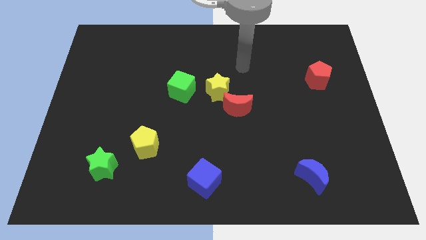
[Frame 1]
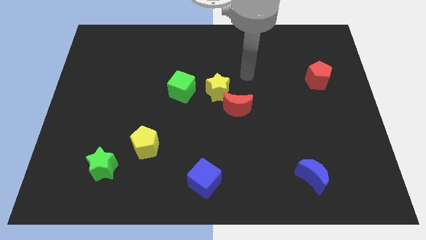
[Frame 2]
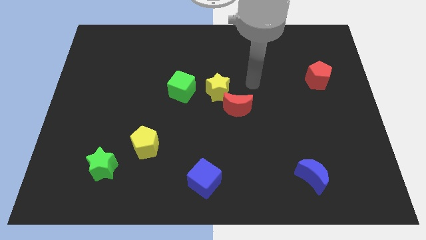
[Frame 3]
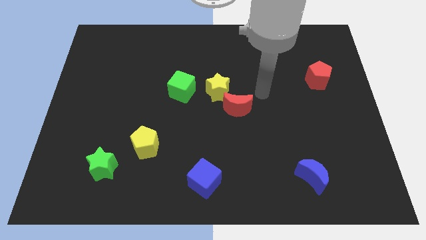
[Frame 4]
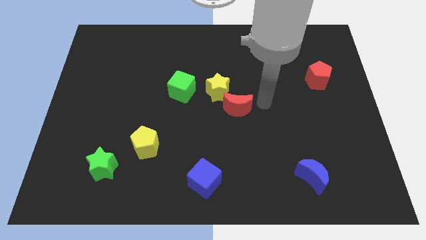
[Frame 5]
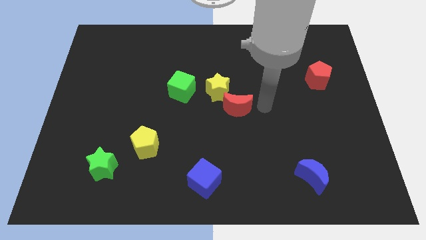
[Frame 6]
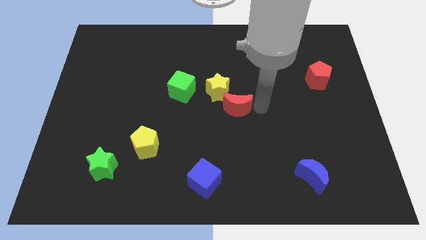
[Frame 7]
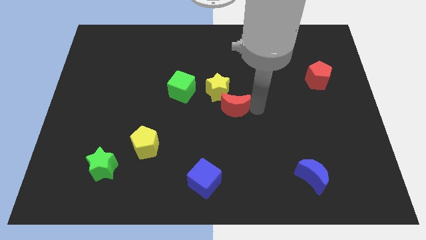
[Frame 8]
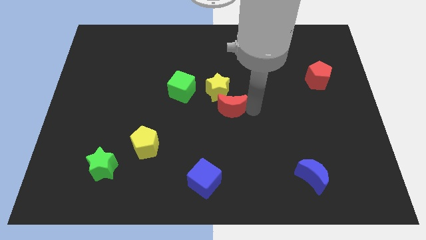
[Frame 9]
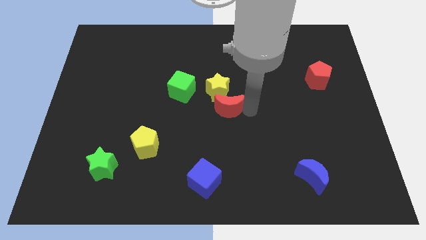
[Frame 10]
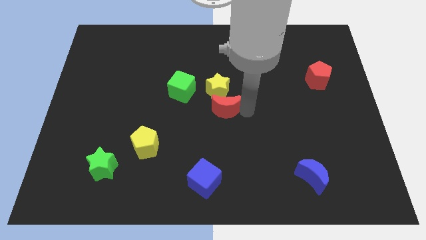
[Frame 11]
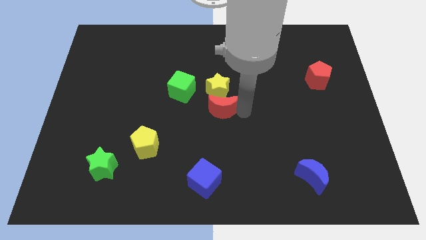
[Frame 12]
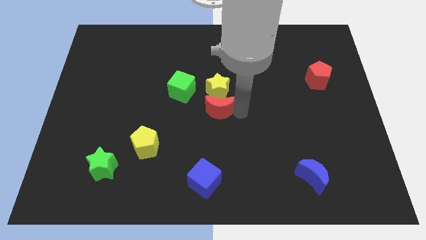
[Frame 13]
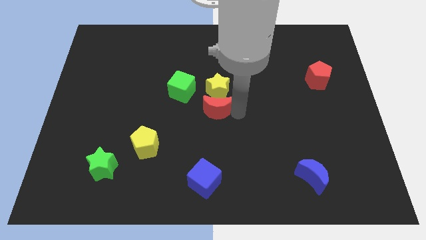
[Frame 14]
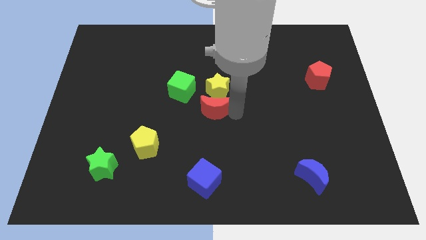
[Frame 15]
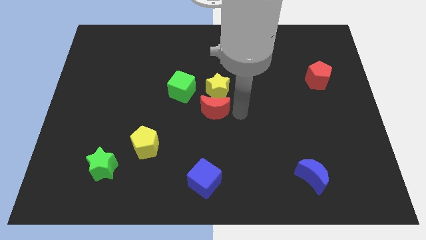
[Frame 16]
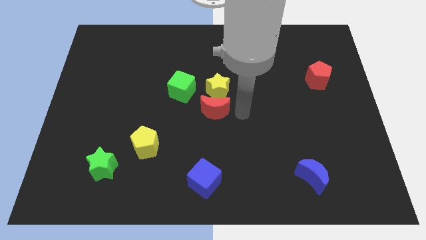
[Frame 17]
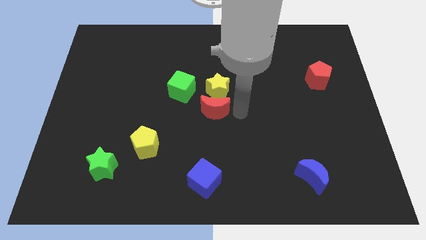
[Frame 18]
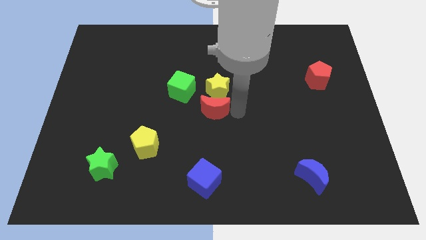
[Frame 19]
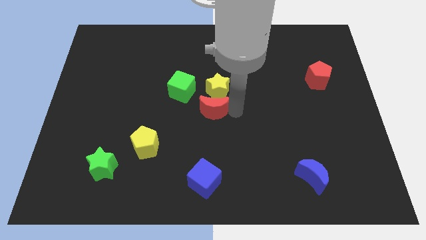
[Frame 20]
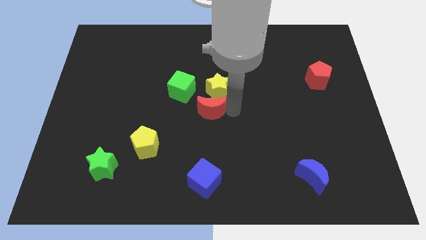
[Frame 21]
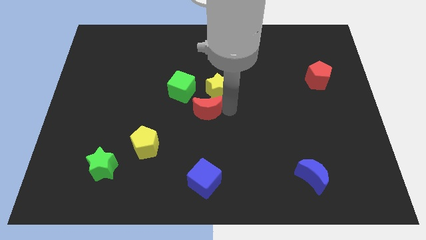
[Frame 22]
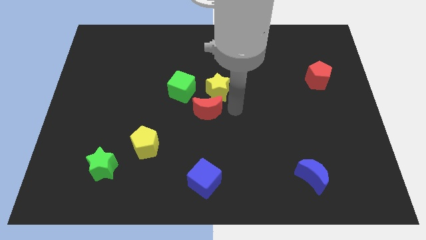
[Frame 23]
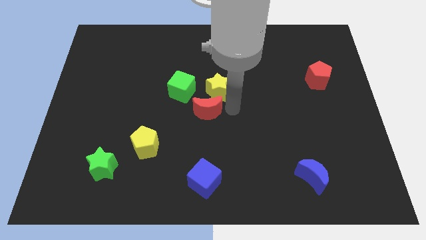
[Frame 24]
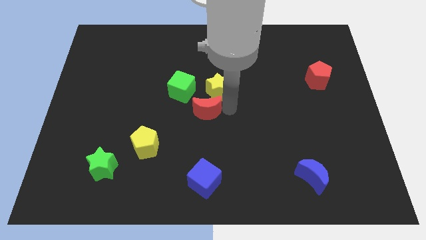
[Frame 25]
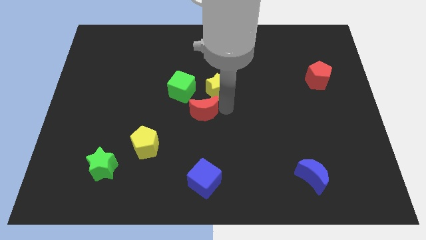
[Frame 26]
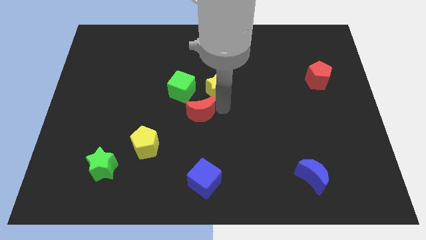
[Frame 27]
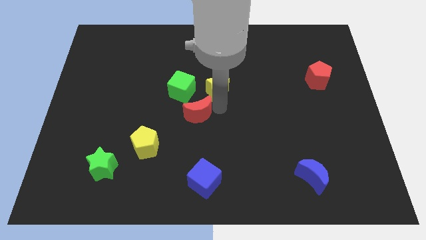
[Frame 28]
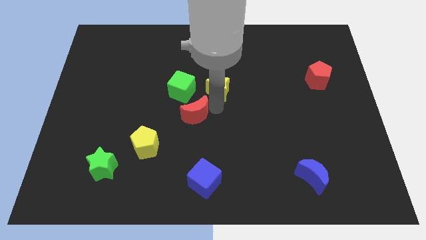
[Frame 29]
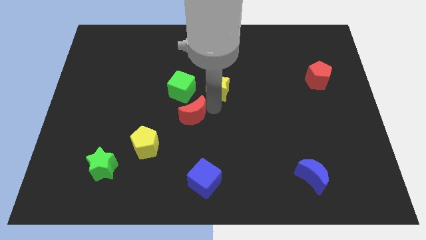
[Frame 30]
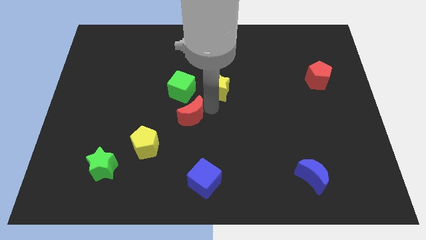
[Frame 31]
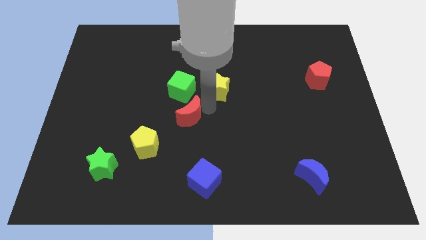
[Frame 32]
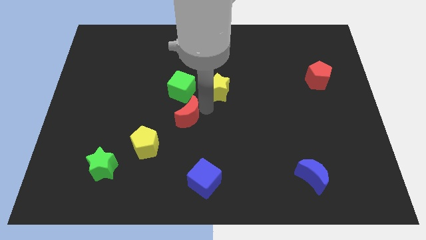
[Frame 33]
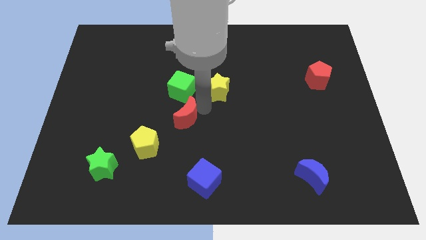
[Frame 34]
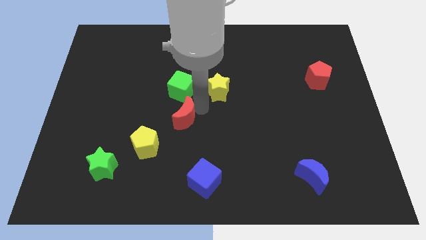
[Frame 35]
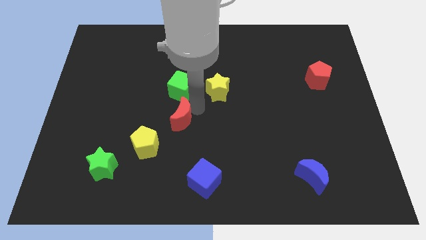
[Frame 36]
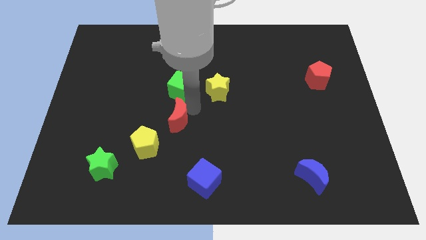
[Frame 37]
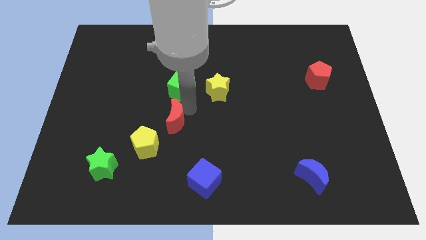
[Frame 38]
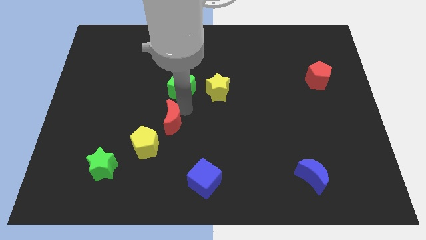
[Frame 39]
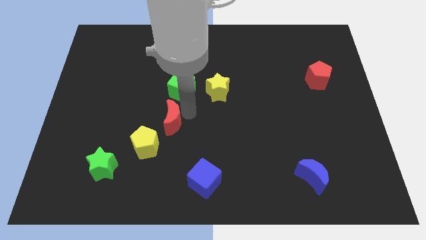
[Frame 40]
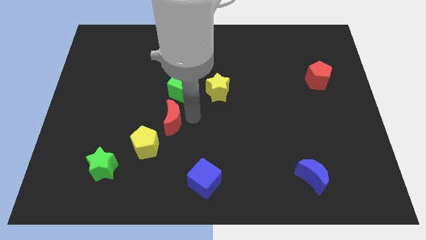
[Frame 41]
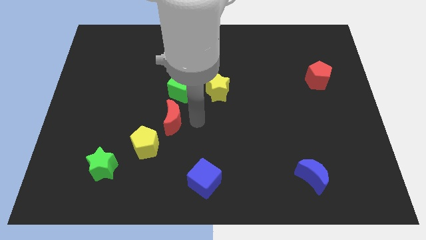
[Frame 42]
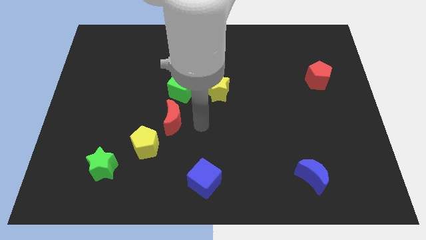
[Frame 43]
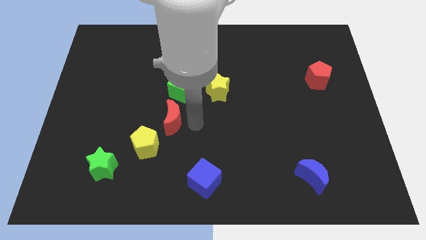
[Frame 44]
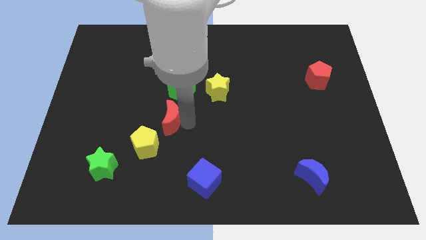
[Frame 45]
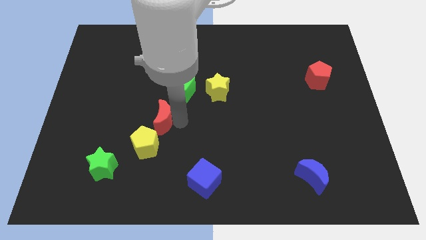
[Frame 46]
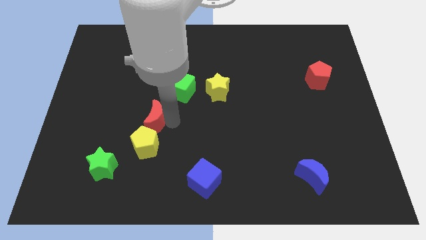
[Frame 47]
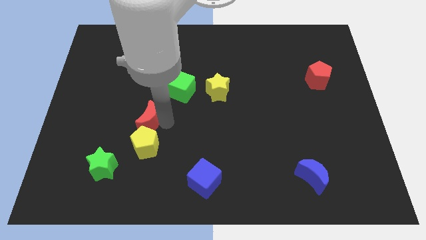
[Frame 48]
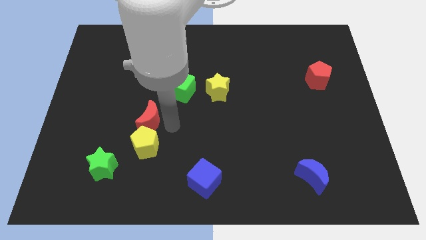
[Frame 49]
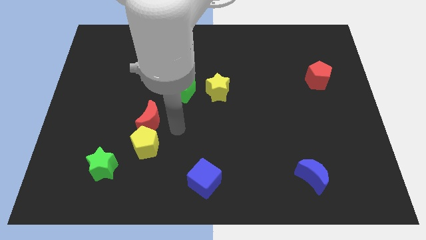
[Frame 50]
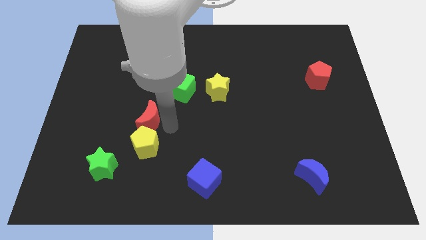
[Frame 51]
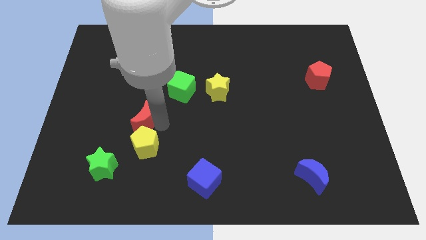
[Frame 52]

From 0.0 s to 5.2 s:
move the red moon left

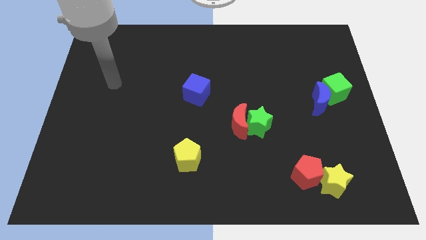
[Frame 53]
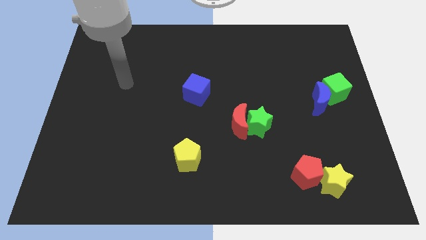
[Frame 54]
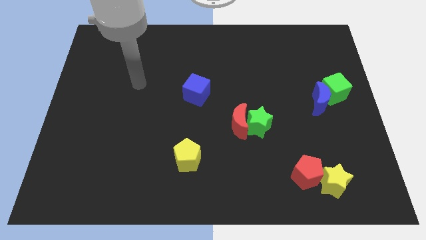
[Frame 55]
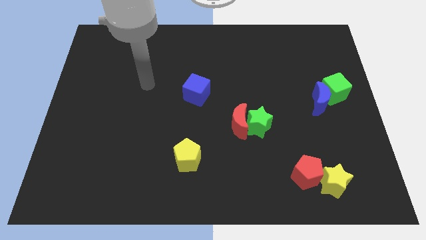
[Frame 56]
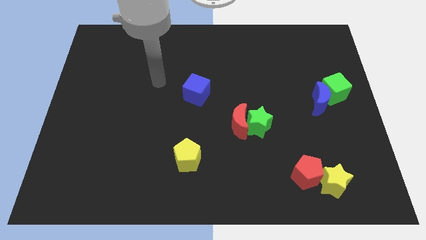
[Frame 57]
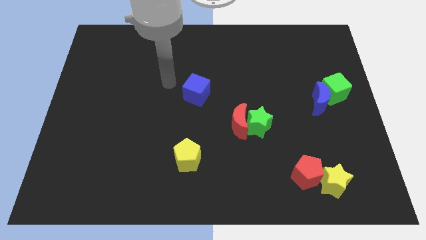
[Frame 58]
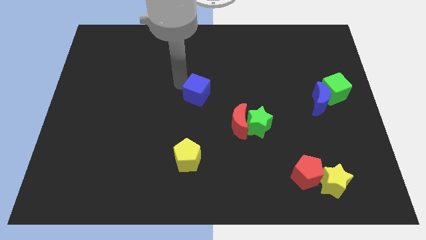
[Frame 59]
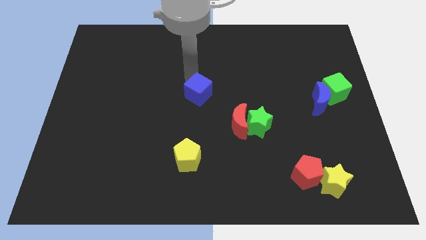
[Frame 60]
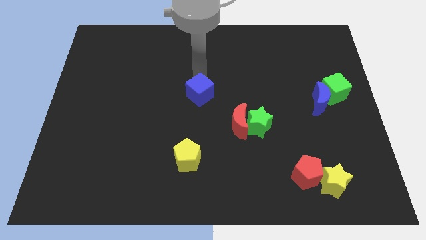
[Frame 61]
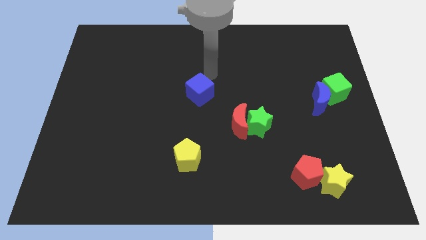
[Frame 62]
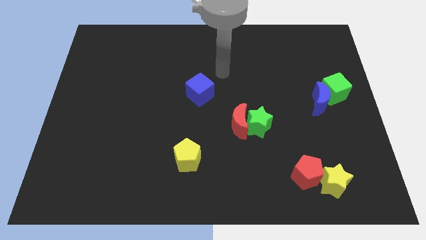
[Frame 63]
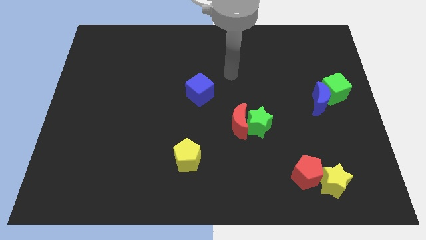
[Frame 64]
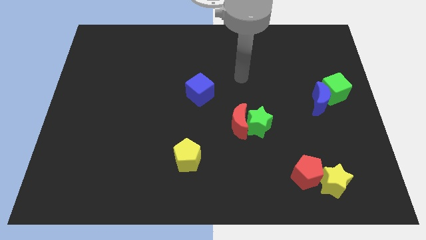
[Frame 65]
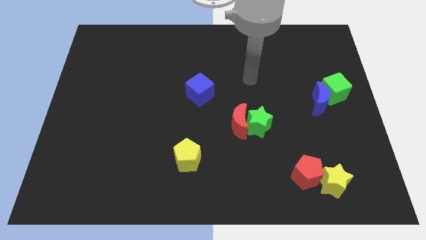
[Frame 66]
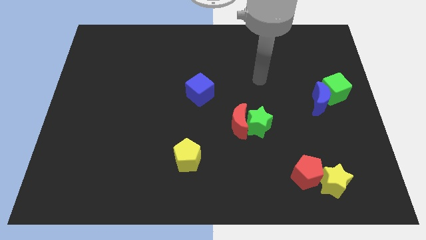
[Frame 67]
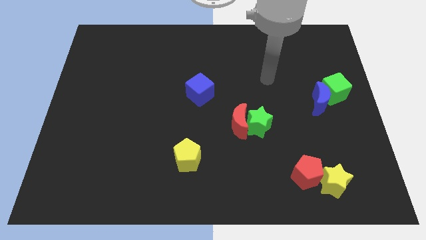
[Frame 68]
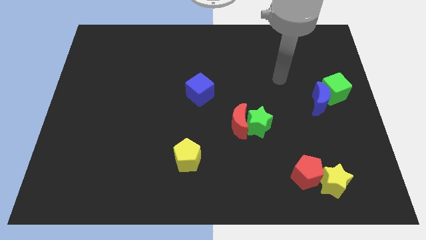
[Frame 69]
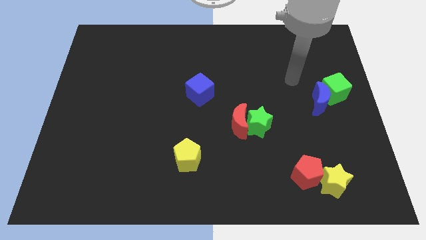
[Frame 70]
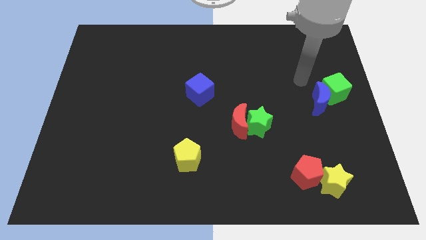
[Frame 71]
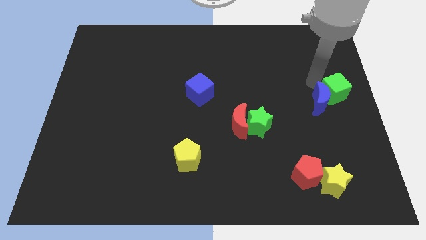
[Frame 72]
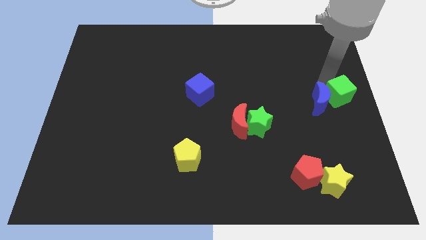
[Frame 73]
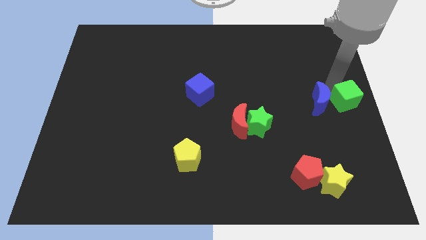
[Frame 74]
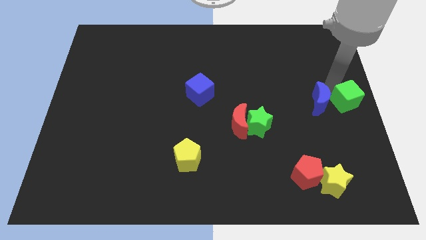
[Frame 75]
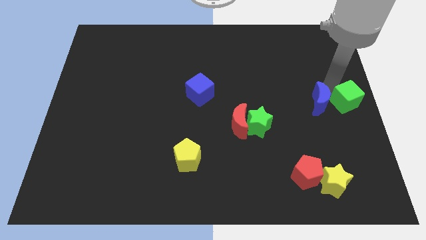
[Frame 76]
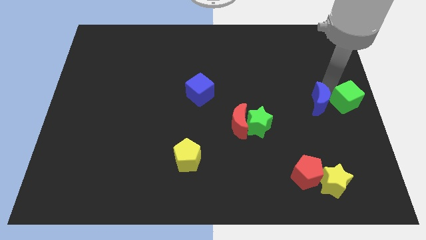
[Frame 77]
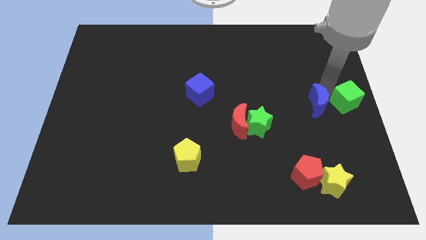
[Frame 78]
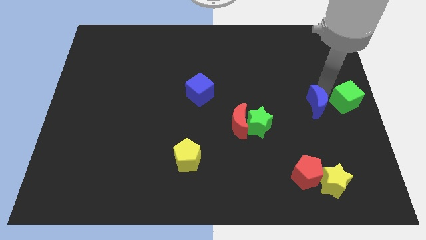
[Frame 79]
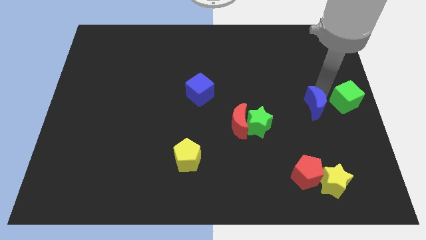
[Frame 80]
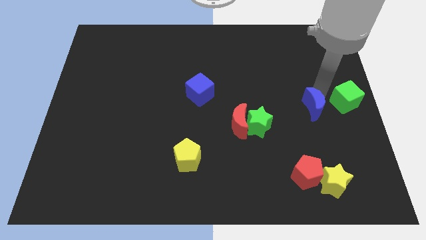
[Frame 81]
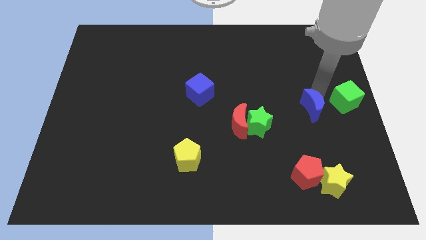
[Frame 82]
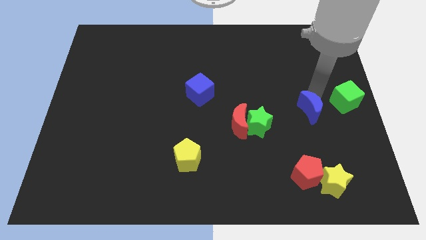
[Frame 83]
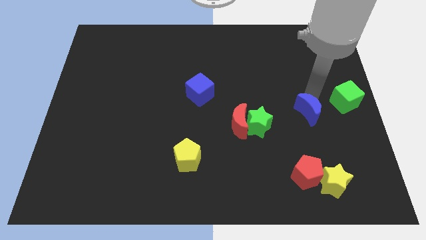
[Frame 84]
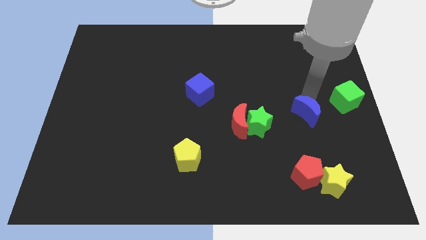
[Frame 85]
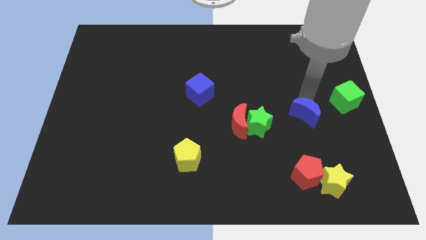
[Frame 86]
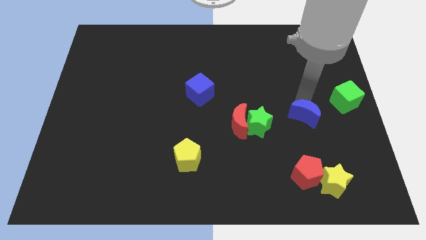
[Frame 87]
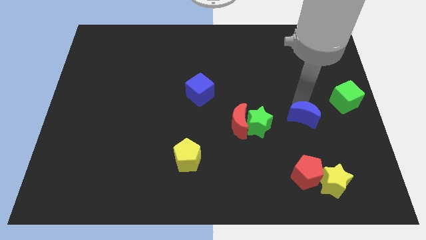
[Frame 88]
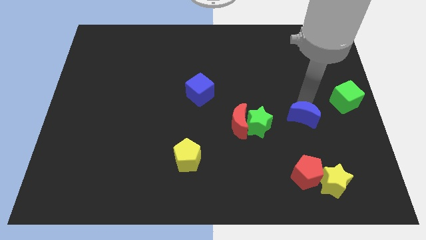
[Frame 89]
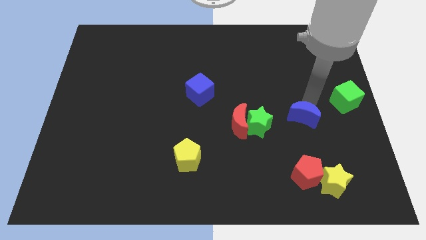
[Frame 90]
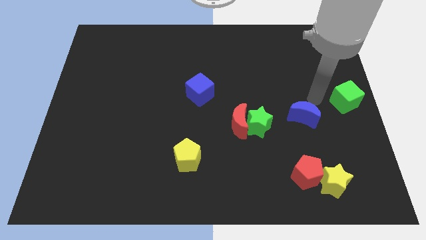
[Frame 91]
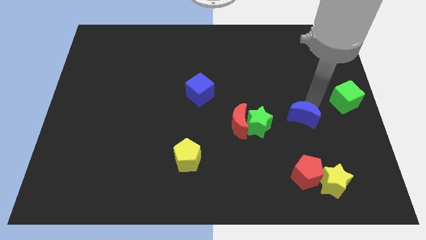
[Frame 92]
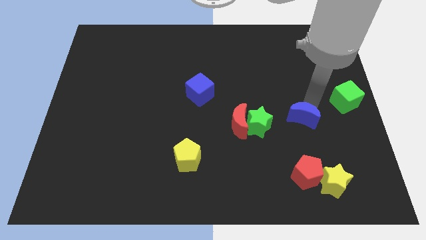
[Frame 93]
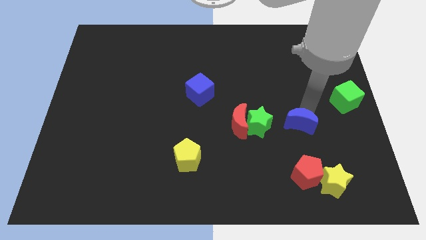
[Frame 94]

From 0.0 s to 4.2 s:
move the blue moon downwards and to the left diagonally a bit
